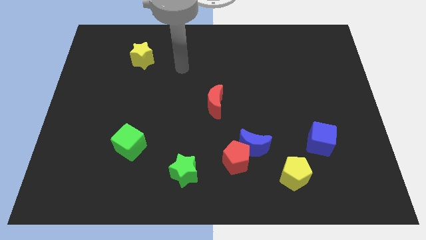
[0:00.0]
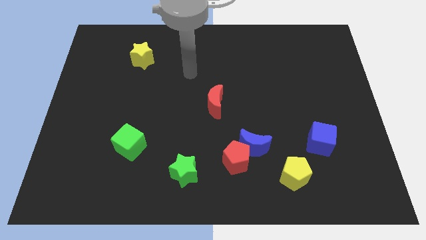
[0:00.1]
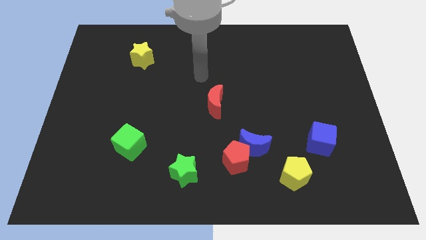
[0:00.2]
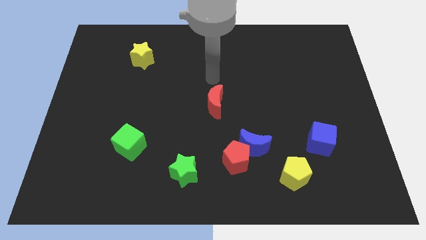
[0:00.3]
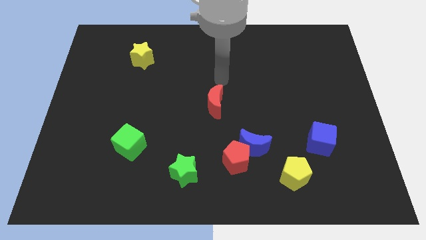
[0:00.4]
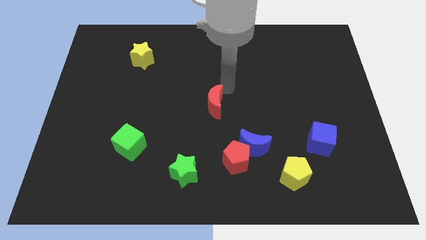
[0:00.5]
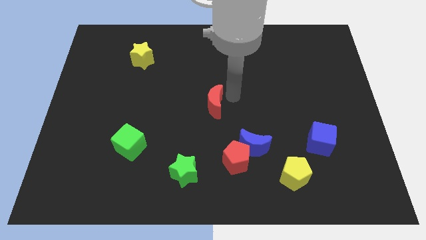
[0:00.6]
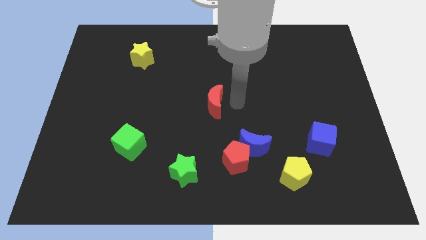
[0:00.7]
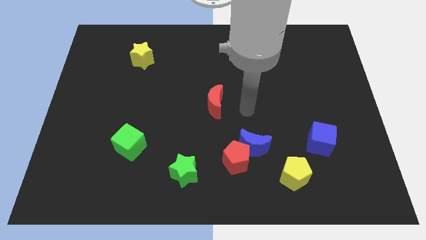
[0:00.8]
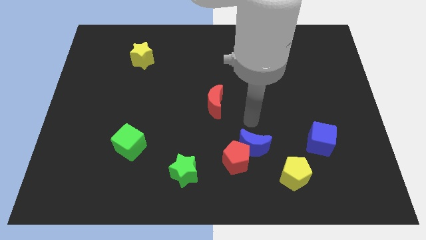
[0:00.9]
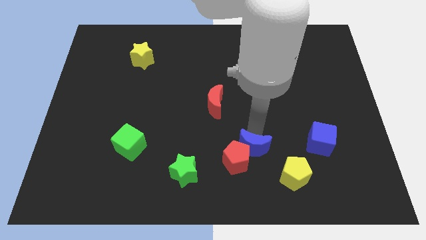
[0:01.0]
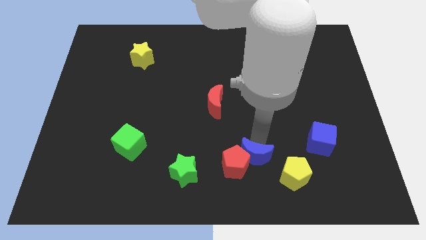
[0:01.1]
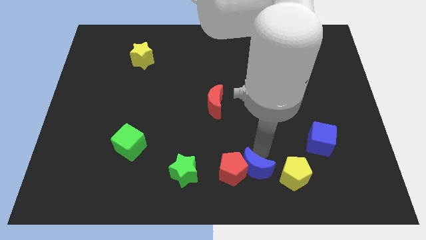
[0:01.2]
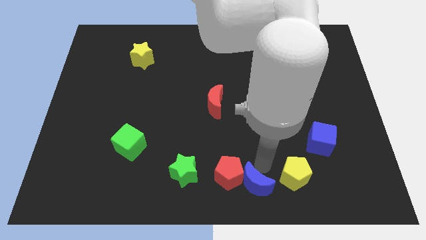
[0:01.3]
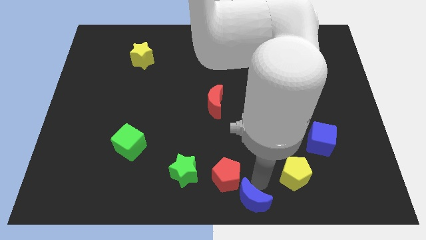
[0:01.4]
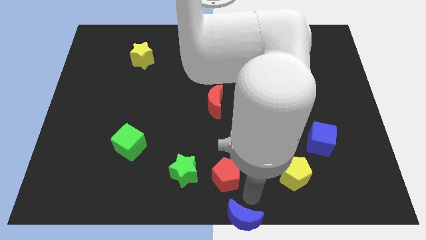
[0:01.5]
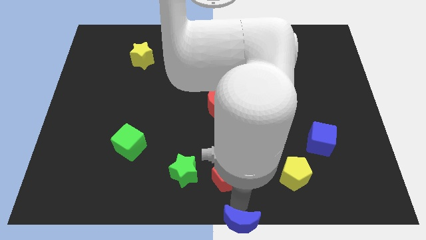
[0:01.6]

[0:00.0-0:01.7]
move the red pentagon away from the blue moon

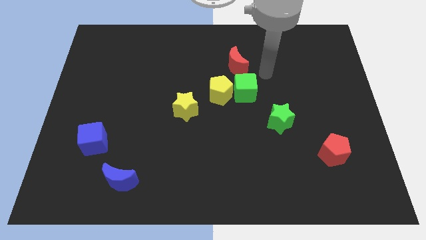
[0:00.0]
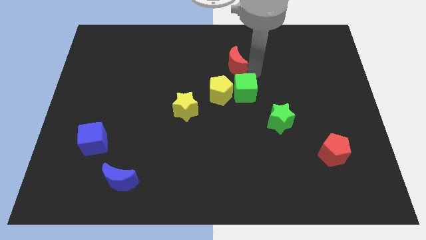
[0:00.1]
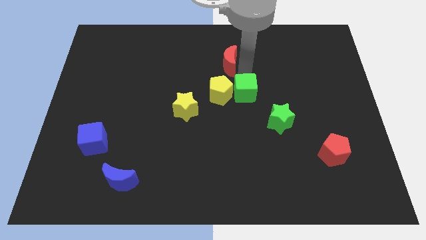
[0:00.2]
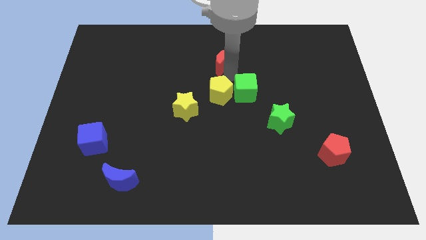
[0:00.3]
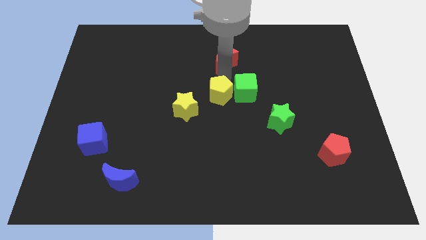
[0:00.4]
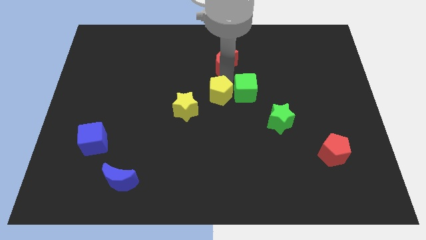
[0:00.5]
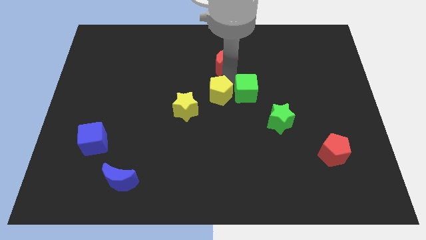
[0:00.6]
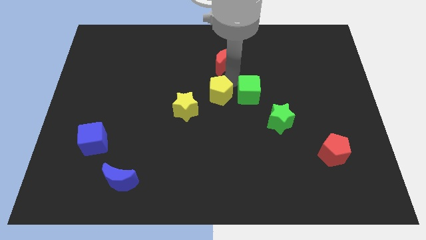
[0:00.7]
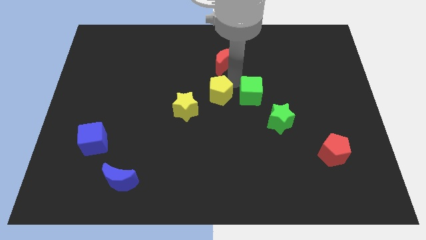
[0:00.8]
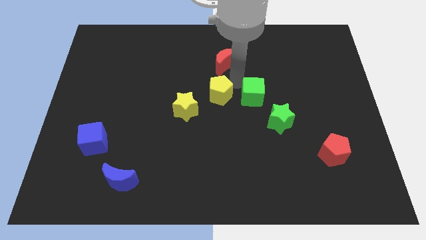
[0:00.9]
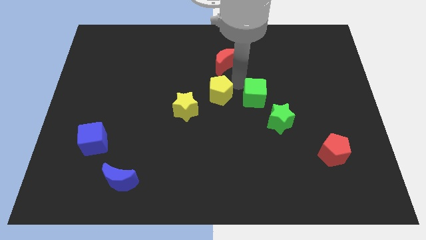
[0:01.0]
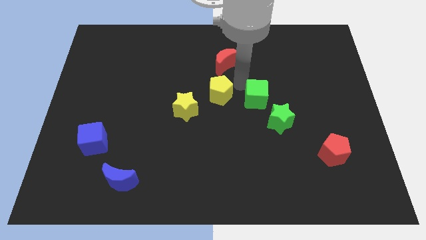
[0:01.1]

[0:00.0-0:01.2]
separate the green cube from the yellow pentagon and red moon

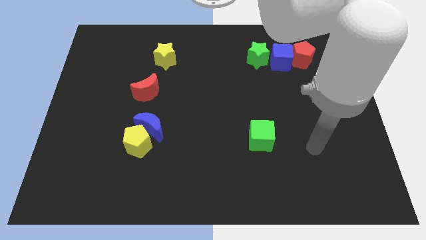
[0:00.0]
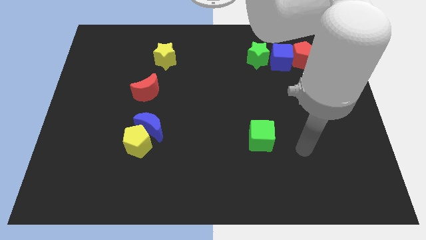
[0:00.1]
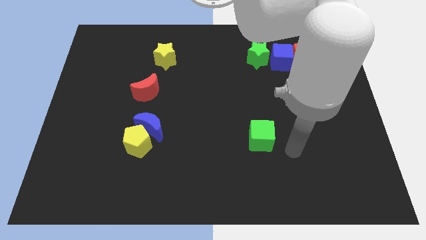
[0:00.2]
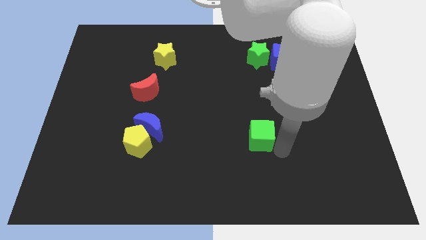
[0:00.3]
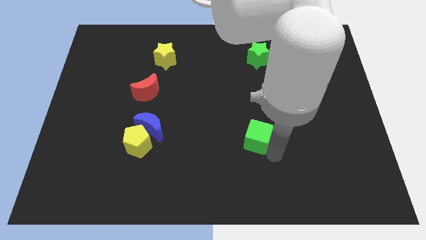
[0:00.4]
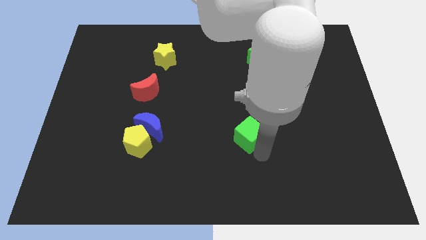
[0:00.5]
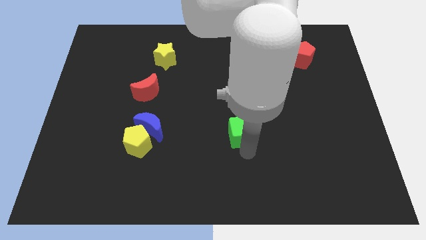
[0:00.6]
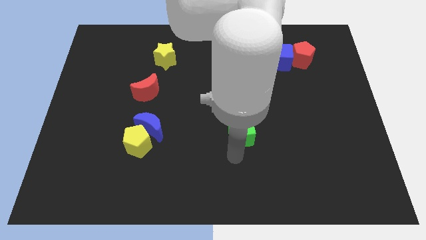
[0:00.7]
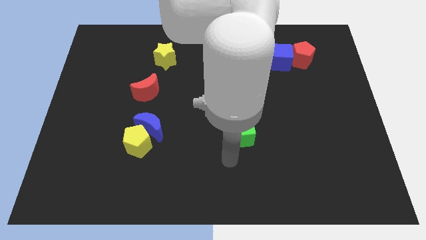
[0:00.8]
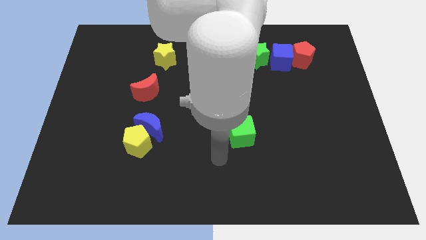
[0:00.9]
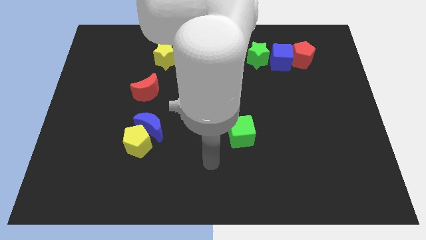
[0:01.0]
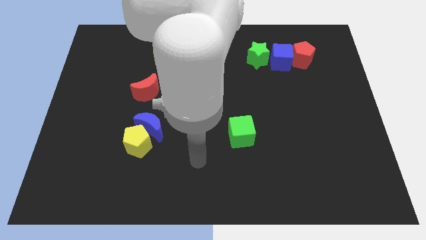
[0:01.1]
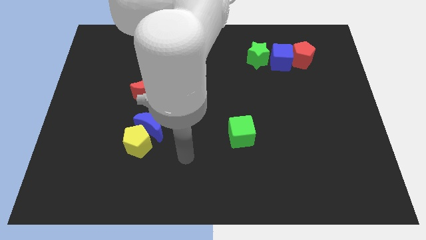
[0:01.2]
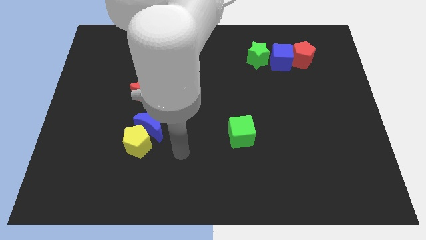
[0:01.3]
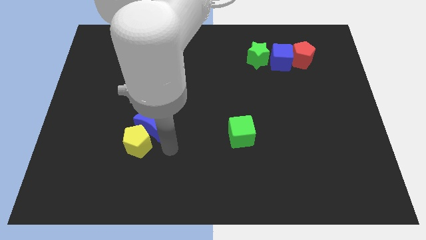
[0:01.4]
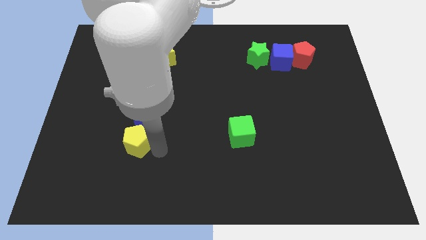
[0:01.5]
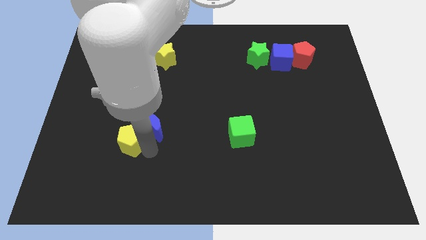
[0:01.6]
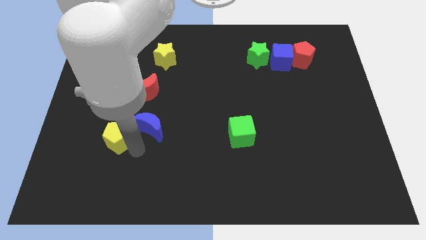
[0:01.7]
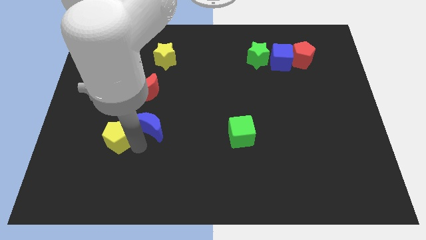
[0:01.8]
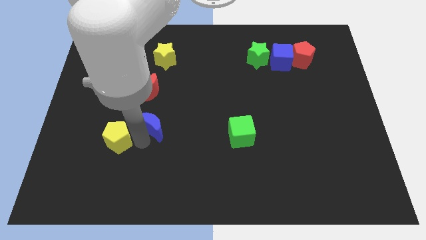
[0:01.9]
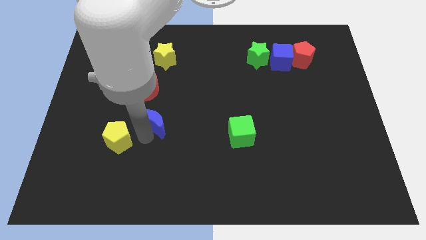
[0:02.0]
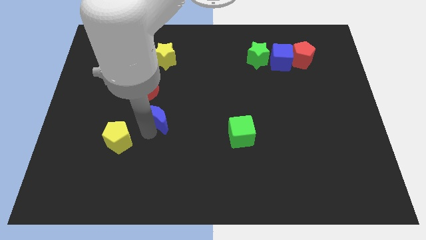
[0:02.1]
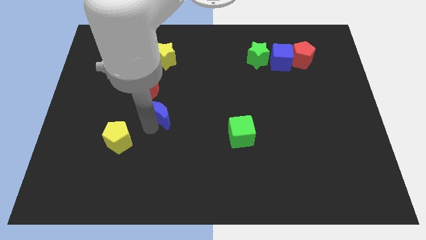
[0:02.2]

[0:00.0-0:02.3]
pull the blue moon apart from the yellow pentagon

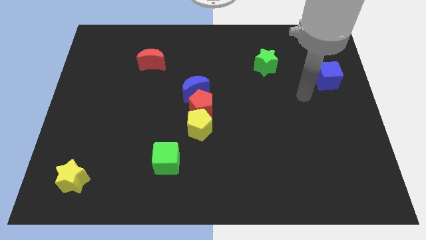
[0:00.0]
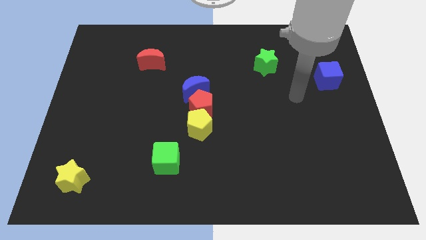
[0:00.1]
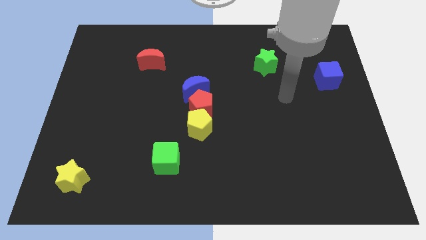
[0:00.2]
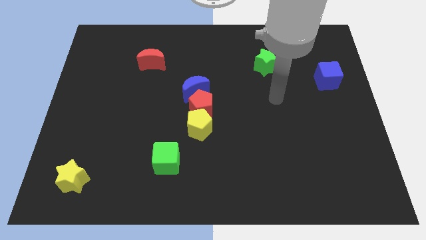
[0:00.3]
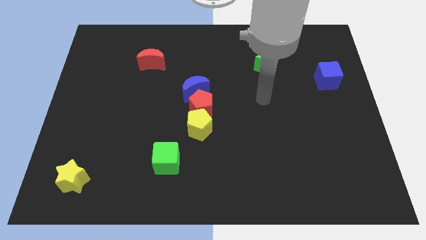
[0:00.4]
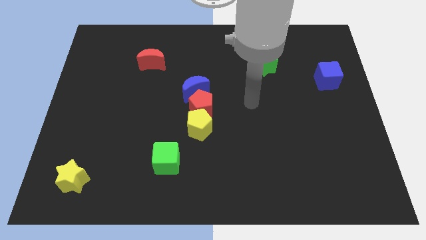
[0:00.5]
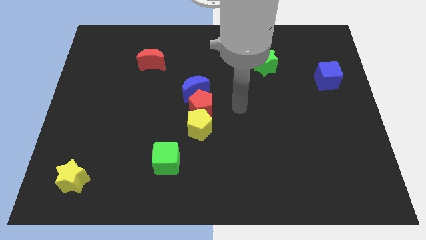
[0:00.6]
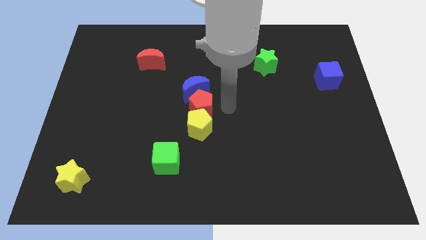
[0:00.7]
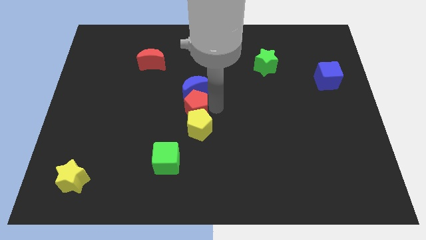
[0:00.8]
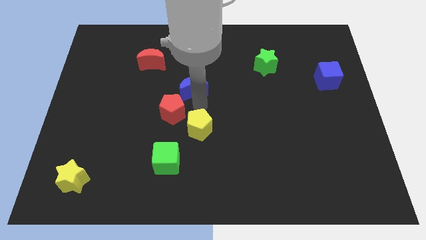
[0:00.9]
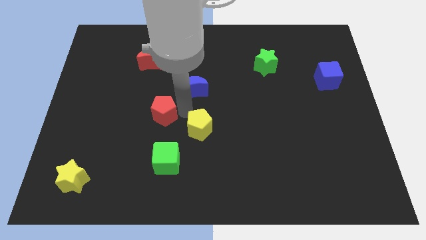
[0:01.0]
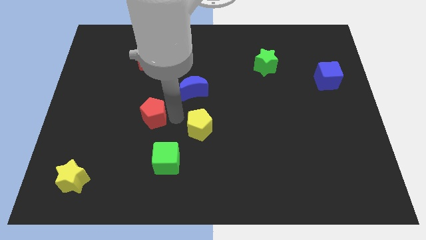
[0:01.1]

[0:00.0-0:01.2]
pull the yellow pentagon apart from the red pentagon

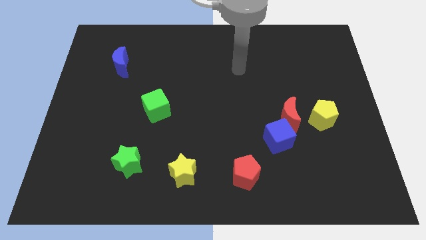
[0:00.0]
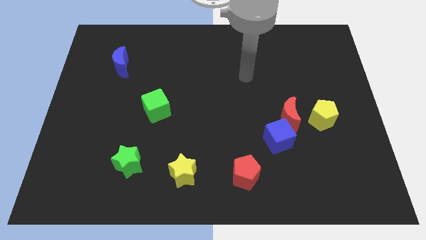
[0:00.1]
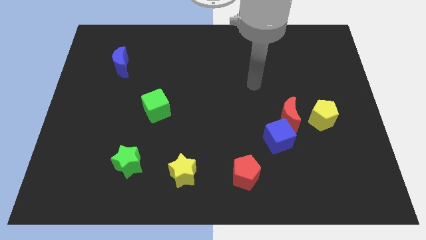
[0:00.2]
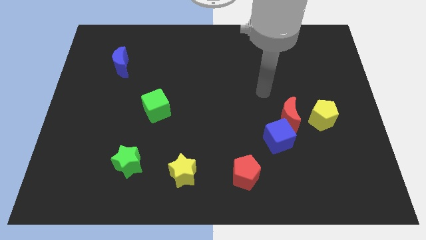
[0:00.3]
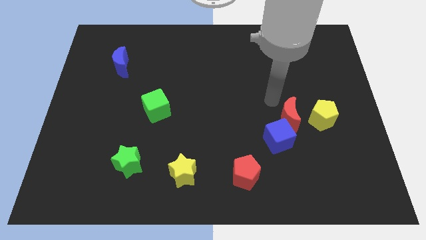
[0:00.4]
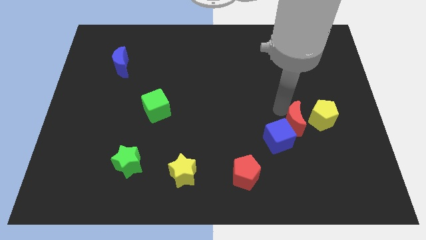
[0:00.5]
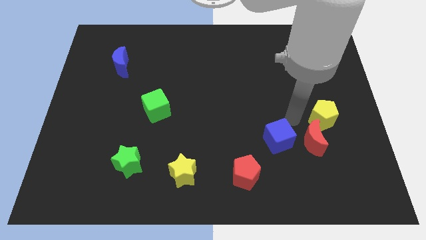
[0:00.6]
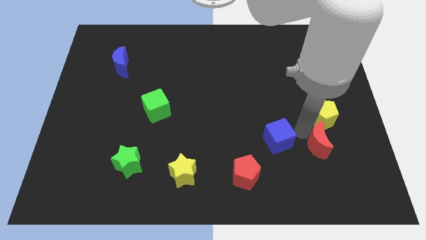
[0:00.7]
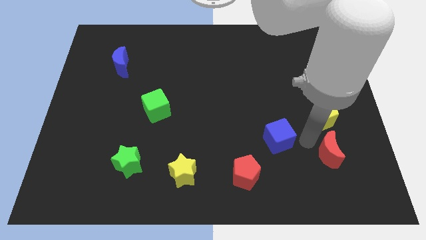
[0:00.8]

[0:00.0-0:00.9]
separate the blue cube from the red moon

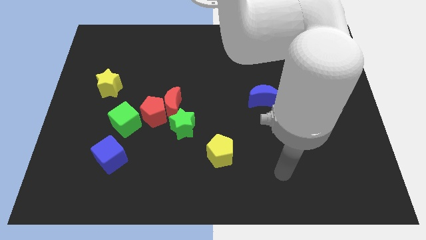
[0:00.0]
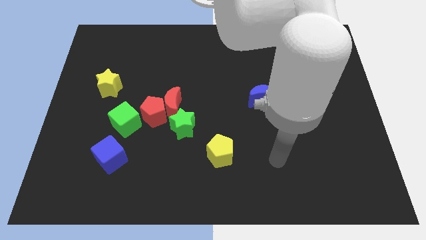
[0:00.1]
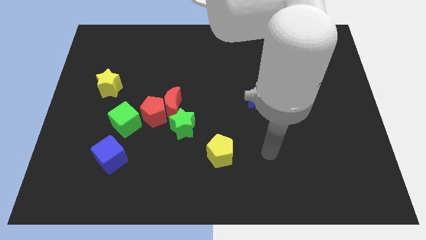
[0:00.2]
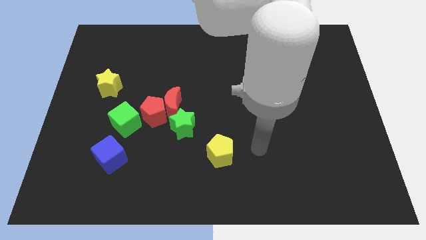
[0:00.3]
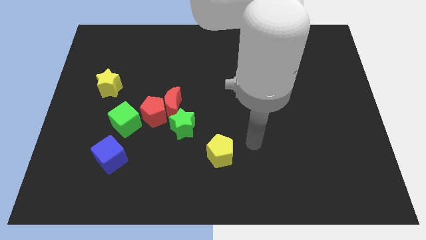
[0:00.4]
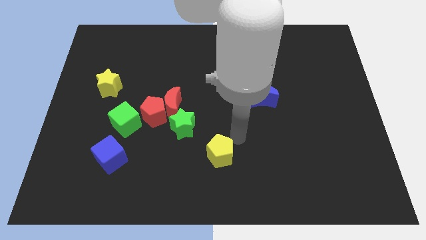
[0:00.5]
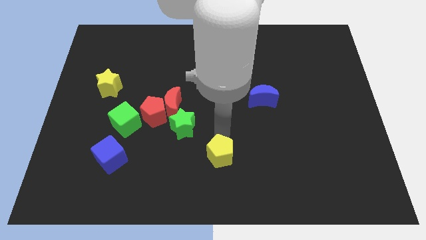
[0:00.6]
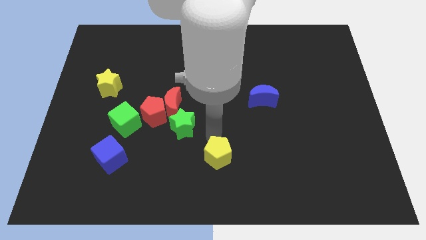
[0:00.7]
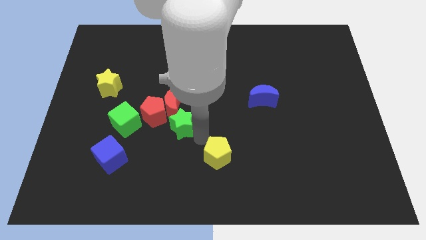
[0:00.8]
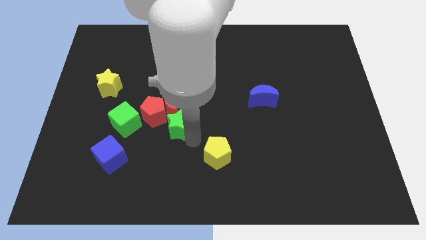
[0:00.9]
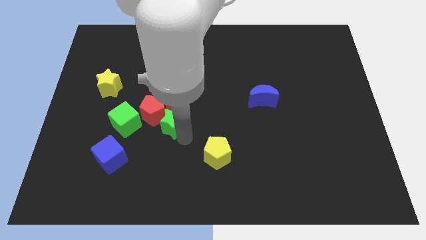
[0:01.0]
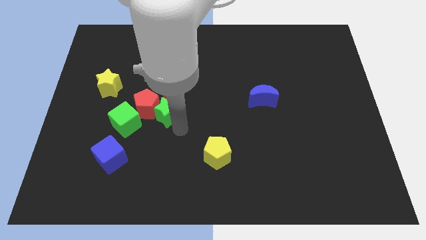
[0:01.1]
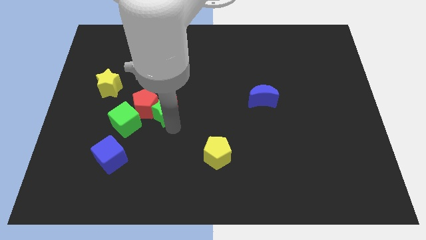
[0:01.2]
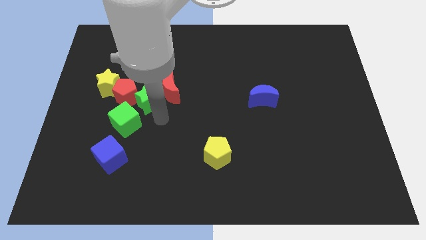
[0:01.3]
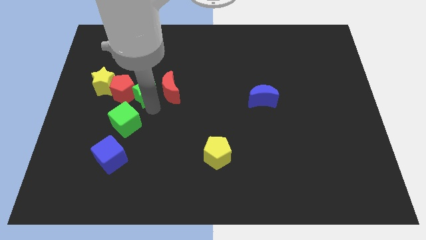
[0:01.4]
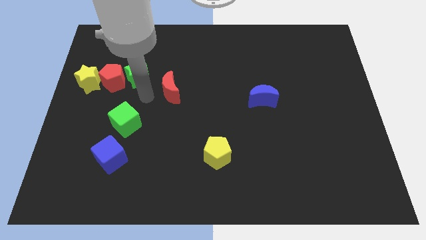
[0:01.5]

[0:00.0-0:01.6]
separate the red moon from the red pentagon and green star

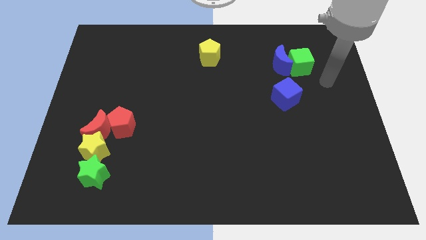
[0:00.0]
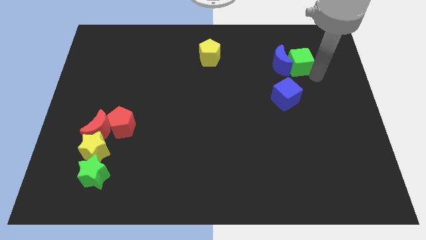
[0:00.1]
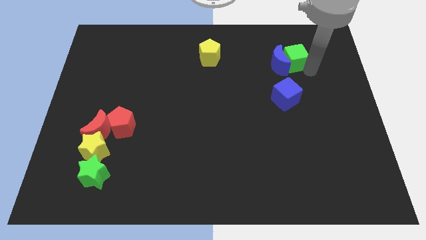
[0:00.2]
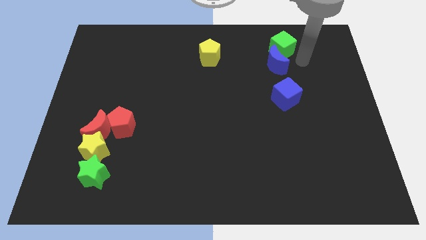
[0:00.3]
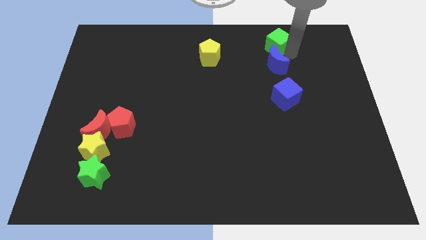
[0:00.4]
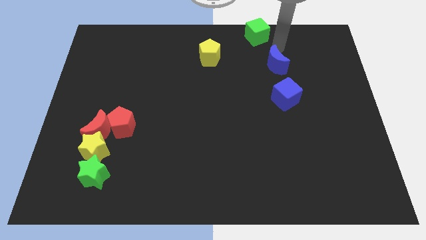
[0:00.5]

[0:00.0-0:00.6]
move the blue moon away from the green cube
